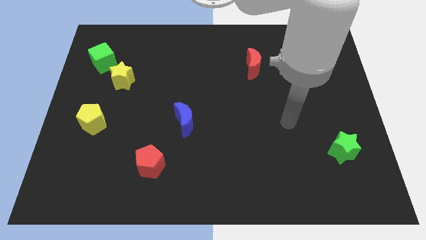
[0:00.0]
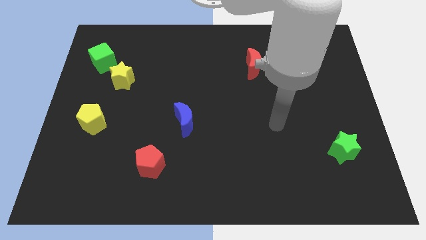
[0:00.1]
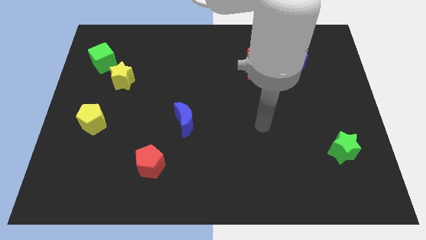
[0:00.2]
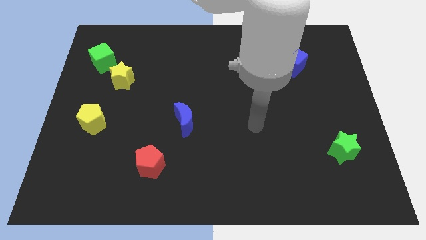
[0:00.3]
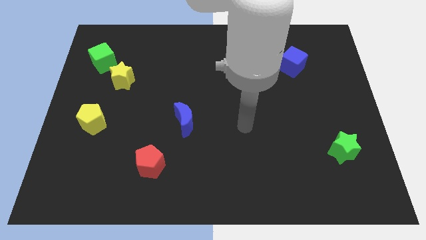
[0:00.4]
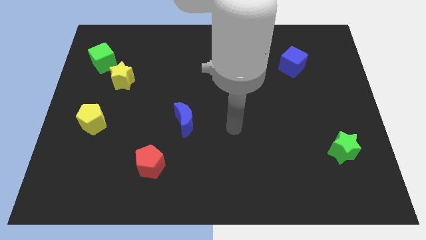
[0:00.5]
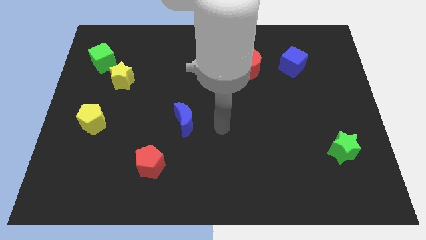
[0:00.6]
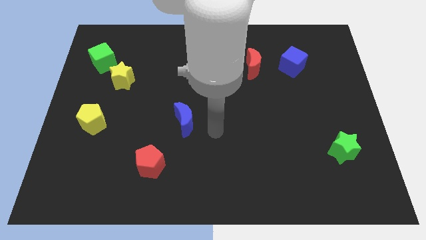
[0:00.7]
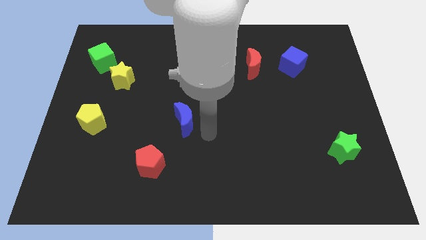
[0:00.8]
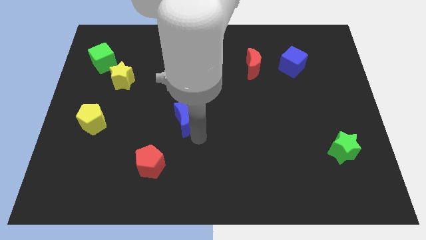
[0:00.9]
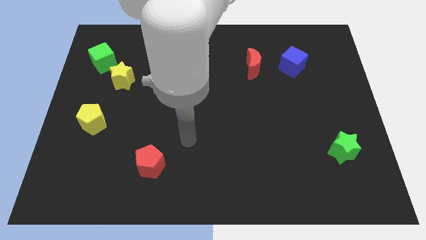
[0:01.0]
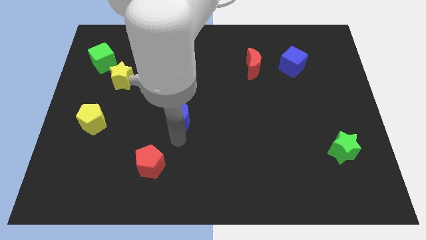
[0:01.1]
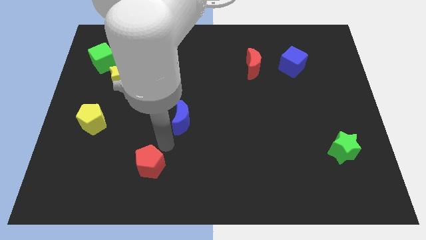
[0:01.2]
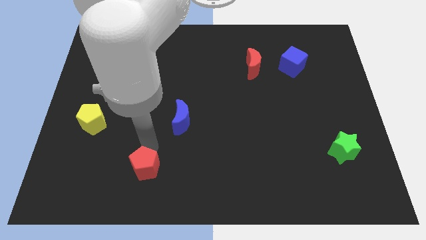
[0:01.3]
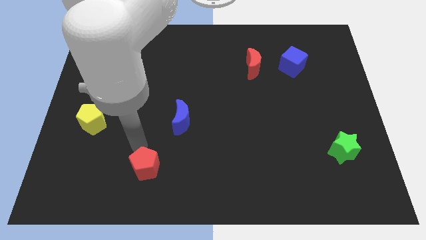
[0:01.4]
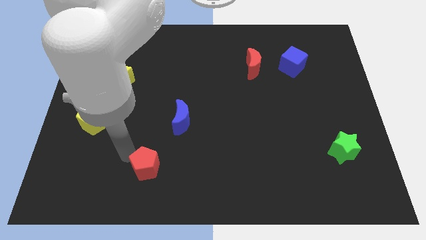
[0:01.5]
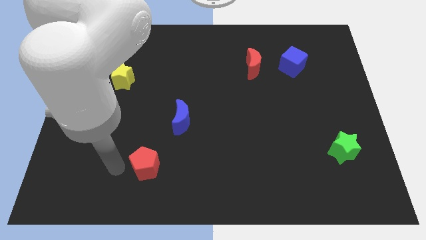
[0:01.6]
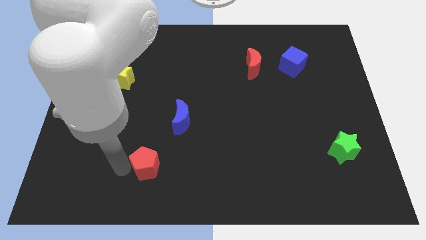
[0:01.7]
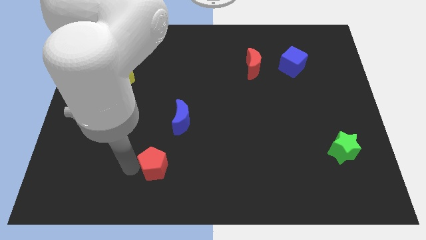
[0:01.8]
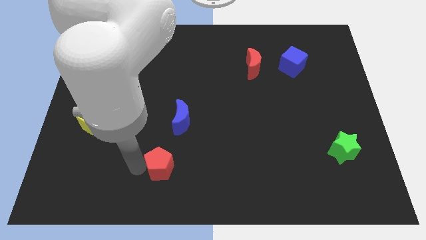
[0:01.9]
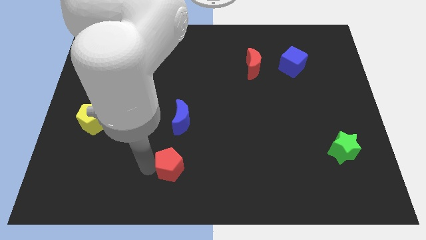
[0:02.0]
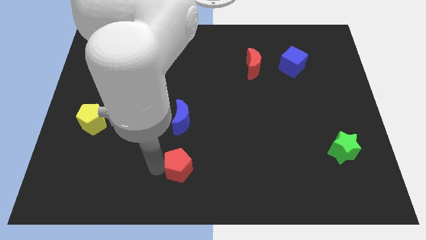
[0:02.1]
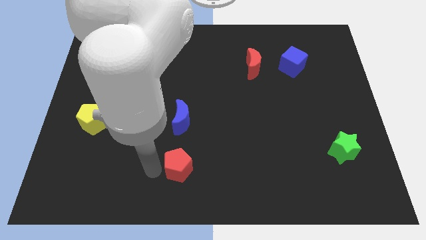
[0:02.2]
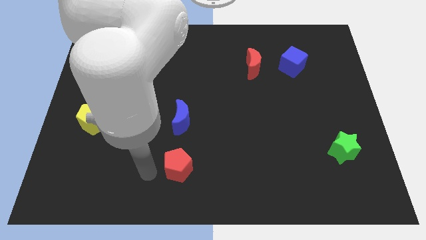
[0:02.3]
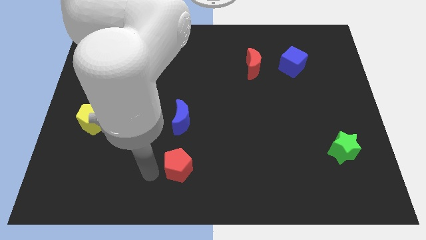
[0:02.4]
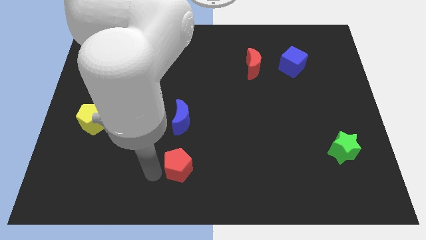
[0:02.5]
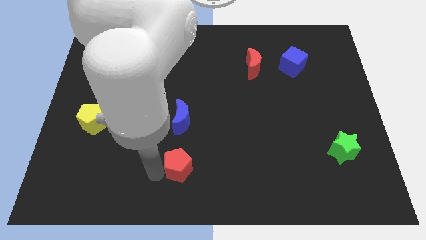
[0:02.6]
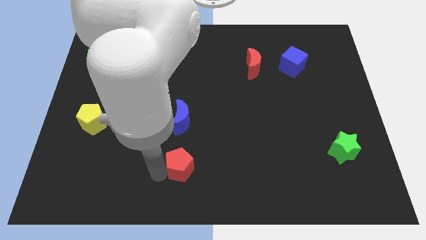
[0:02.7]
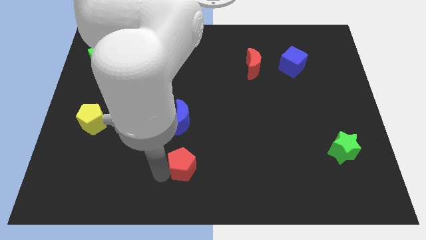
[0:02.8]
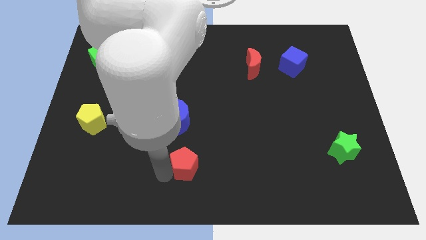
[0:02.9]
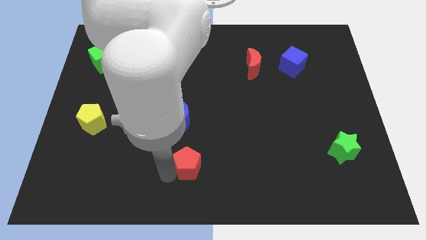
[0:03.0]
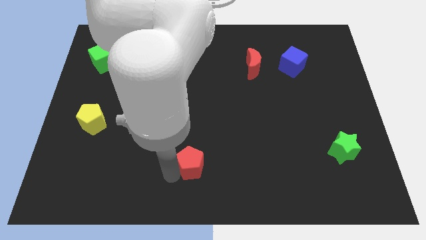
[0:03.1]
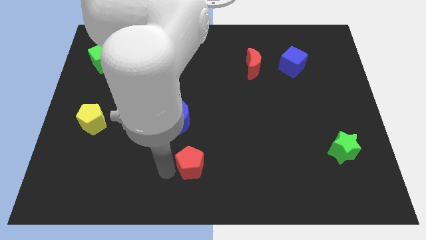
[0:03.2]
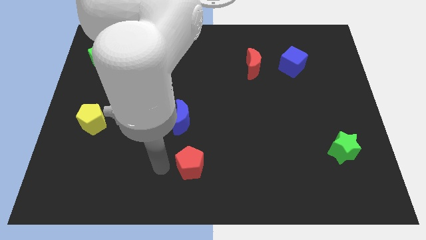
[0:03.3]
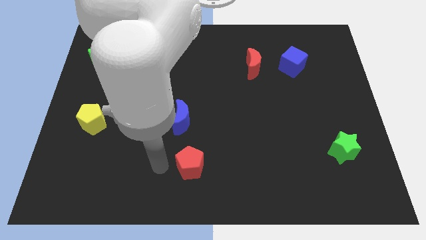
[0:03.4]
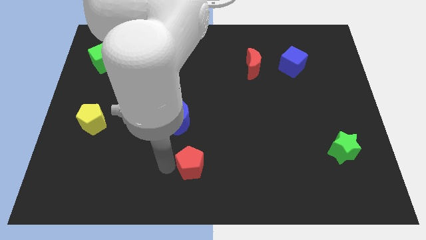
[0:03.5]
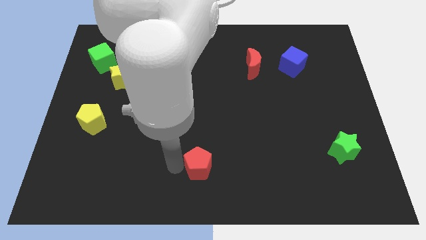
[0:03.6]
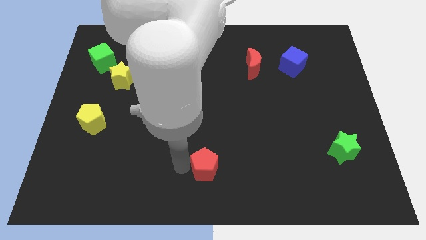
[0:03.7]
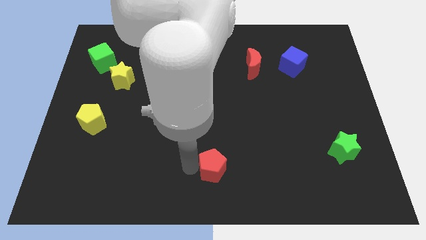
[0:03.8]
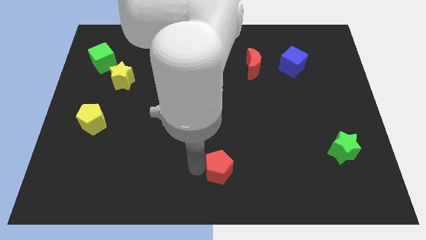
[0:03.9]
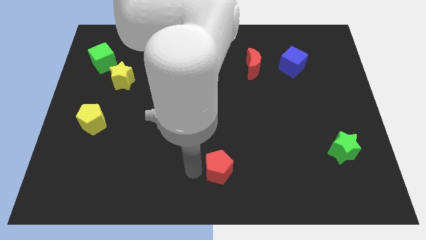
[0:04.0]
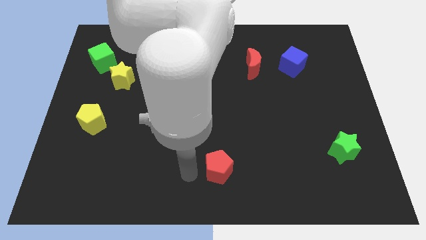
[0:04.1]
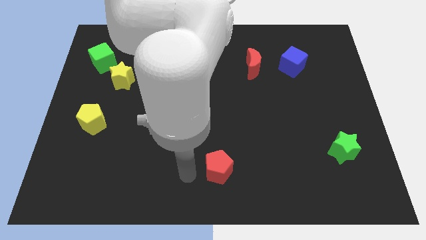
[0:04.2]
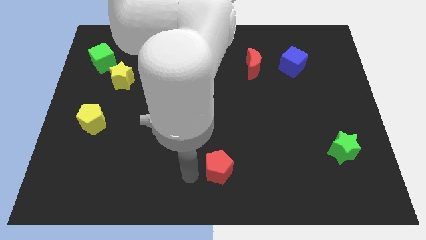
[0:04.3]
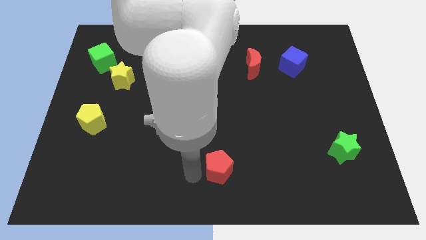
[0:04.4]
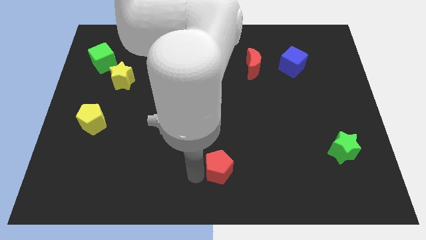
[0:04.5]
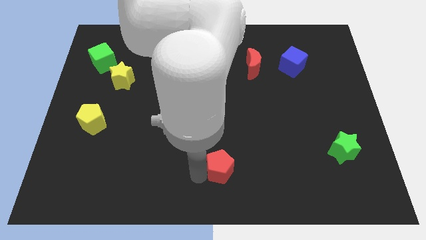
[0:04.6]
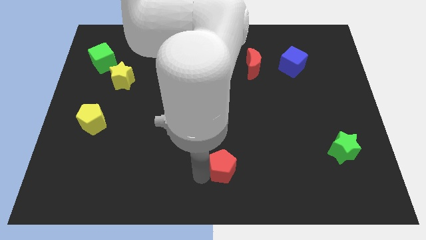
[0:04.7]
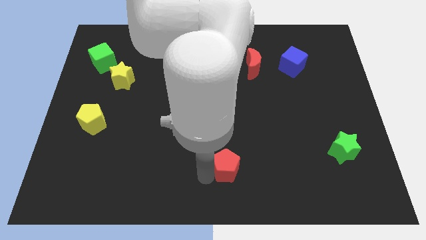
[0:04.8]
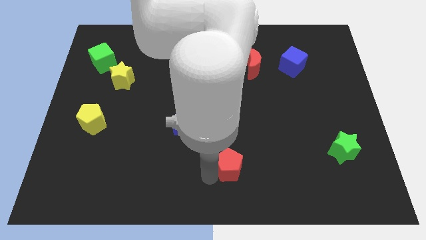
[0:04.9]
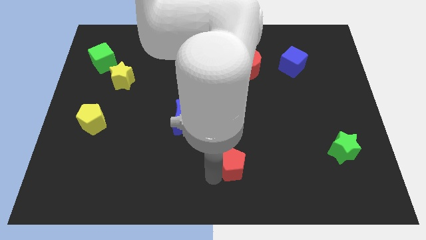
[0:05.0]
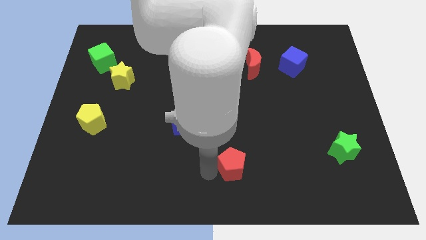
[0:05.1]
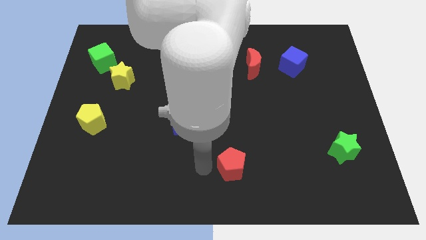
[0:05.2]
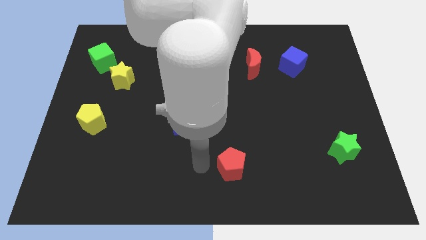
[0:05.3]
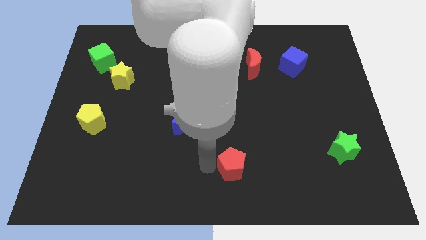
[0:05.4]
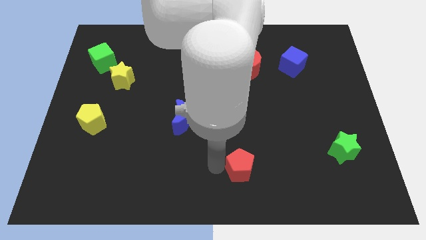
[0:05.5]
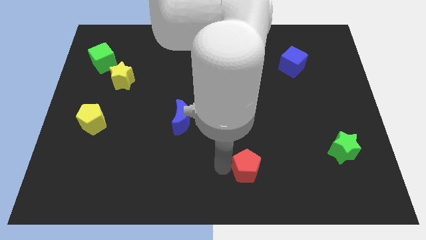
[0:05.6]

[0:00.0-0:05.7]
move the red pentagon to the right

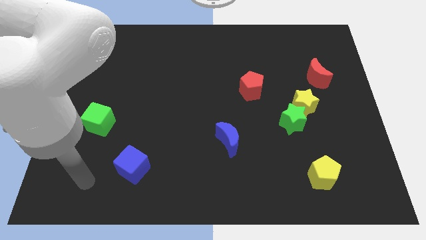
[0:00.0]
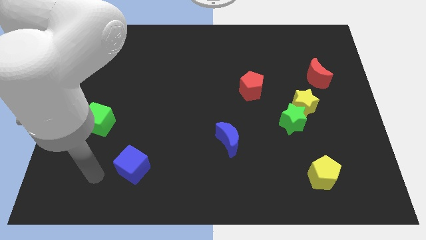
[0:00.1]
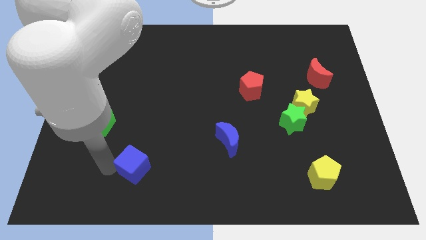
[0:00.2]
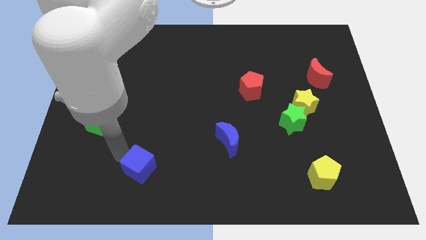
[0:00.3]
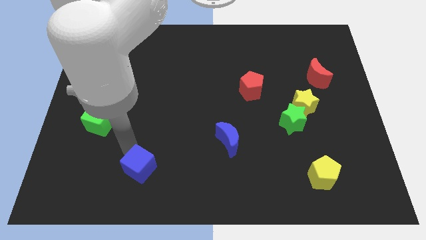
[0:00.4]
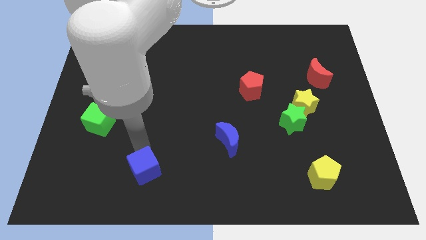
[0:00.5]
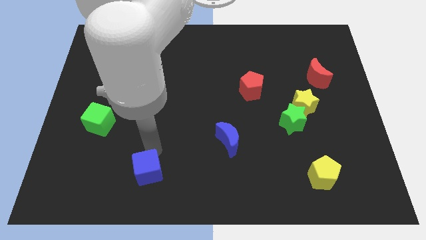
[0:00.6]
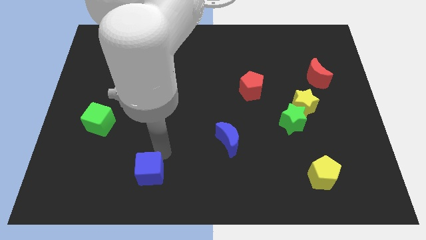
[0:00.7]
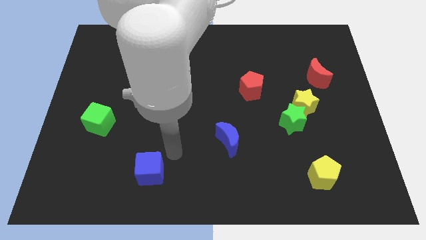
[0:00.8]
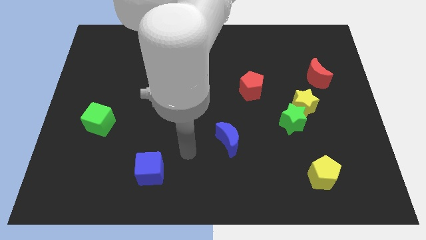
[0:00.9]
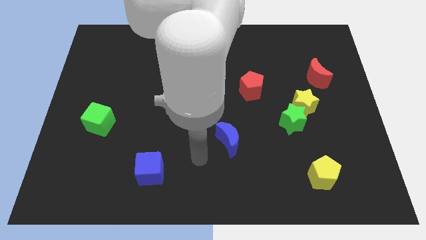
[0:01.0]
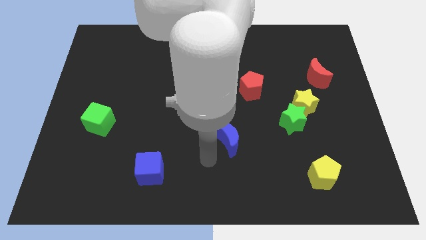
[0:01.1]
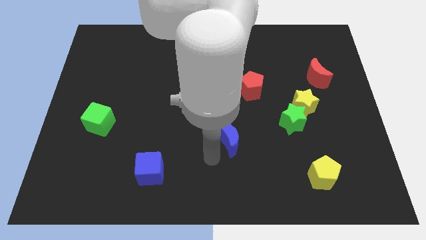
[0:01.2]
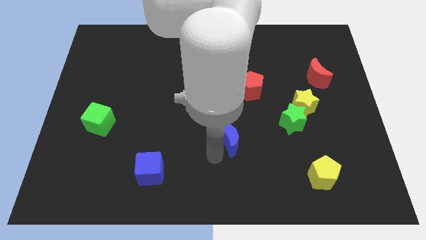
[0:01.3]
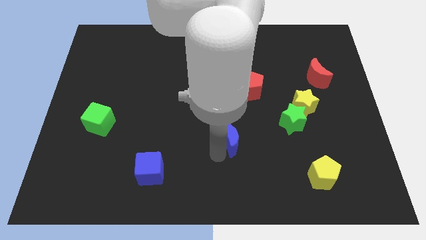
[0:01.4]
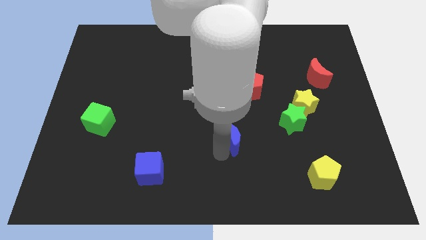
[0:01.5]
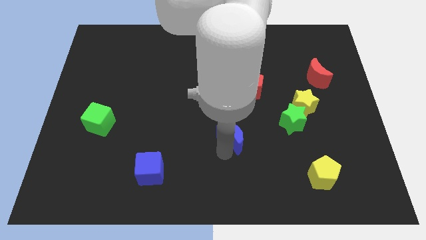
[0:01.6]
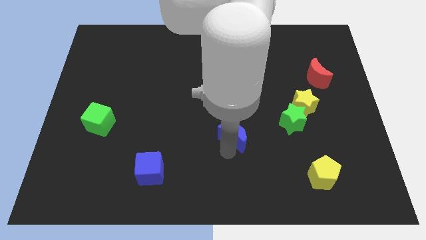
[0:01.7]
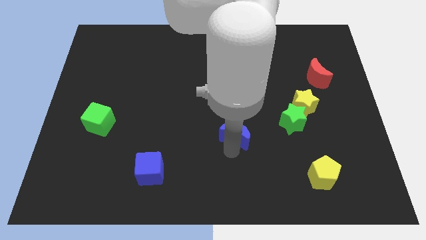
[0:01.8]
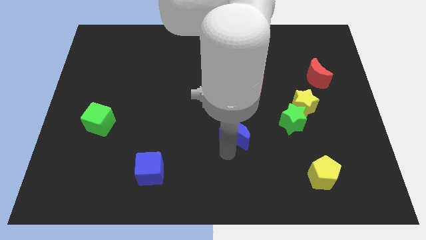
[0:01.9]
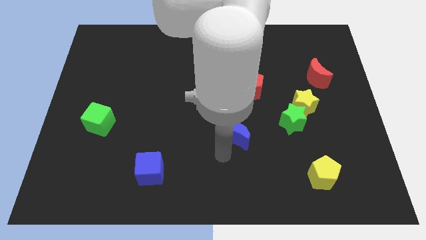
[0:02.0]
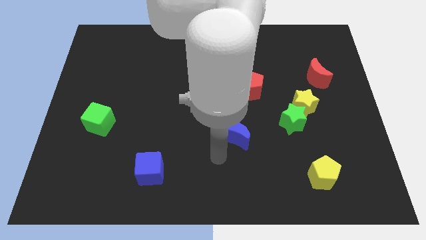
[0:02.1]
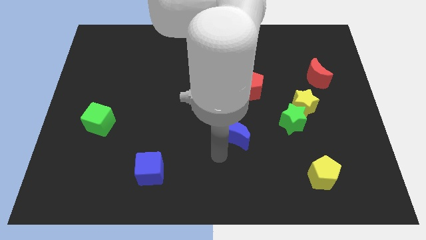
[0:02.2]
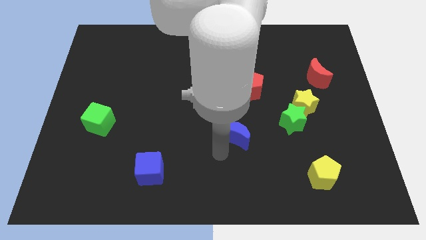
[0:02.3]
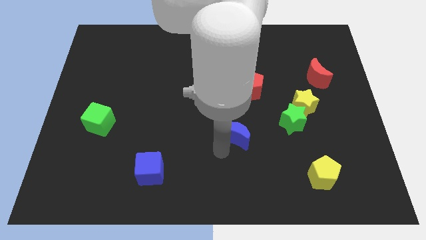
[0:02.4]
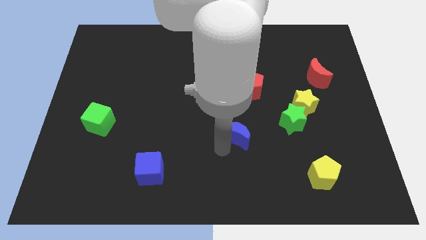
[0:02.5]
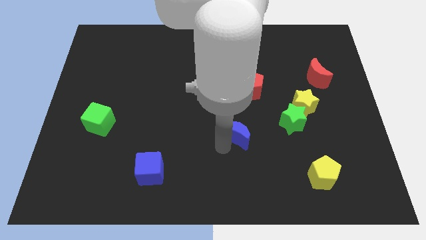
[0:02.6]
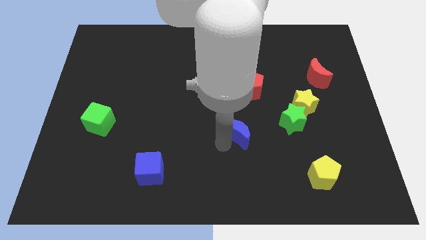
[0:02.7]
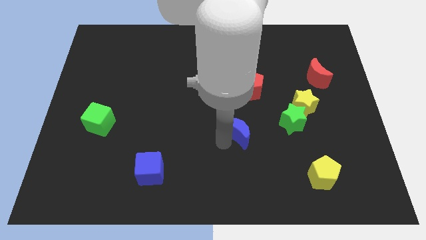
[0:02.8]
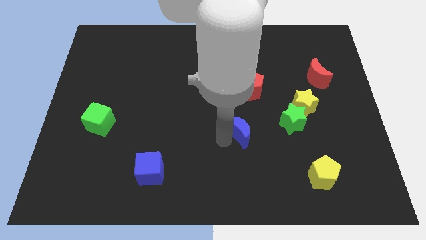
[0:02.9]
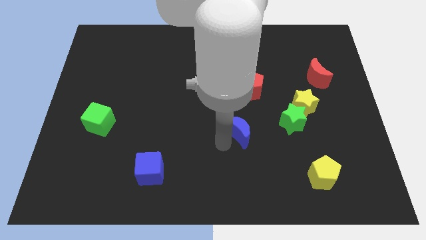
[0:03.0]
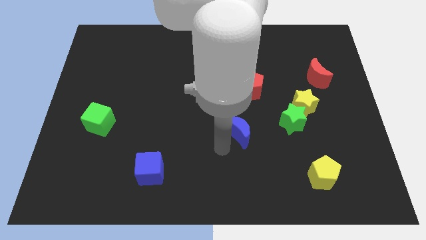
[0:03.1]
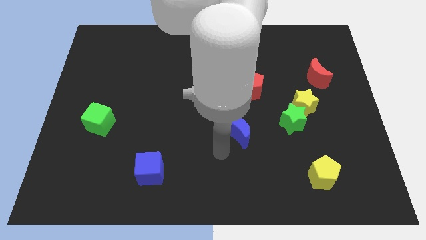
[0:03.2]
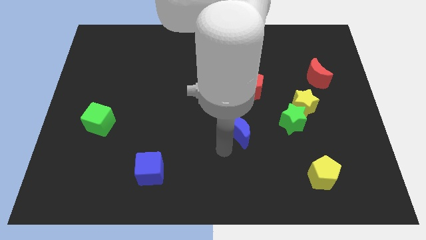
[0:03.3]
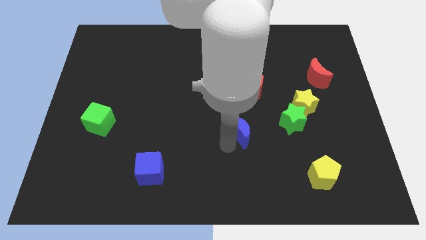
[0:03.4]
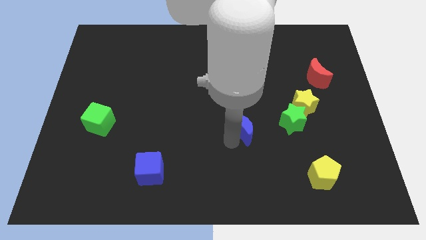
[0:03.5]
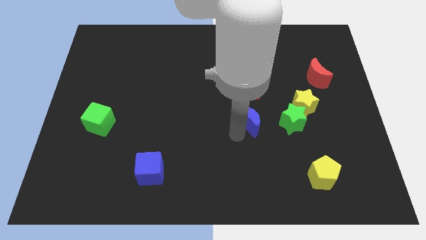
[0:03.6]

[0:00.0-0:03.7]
slide the blue moon up and then right a bit
